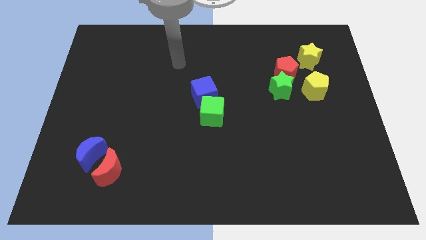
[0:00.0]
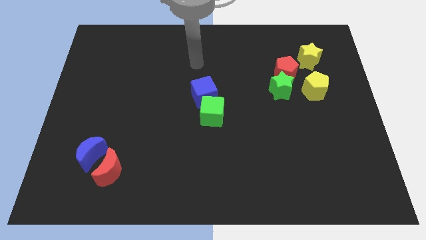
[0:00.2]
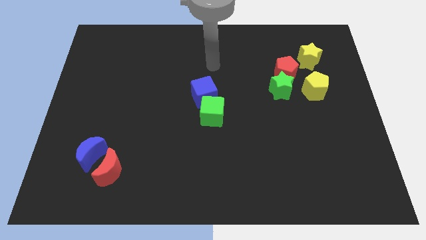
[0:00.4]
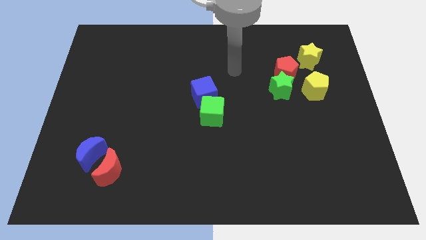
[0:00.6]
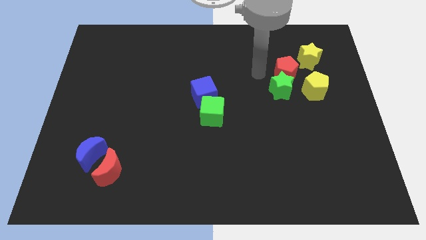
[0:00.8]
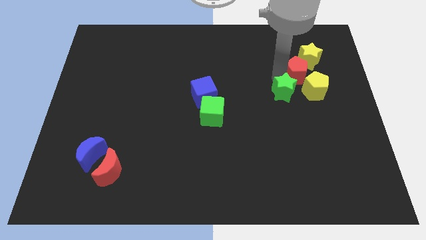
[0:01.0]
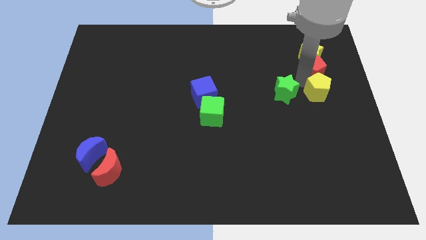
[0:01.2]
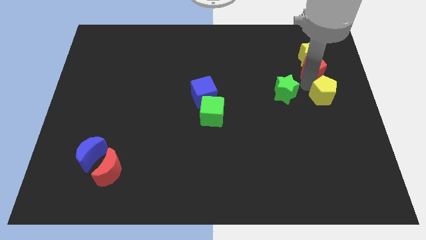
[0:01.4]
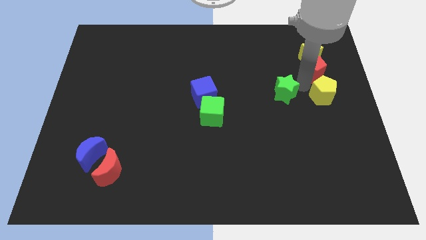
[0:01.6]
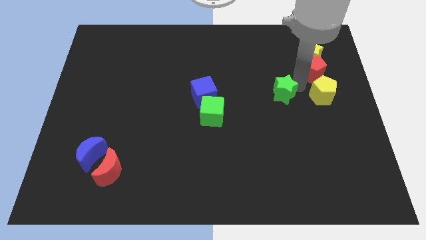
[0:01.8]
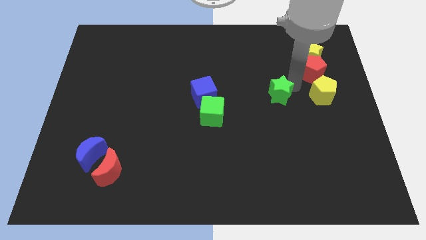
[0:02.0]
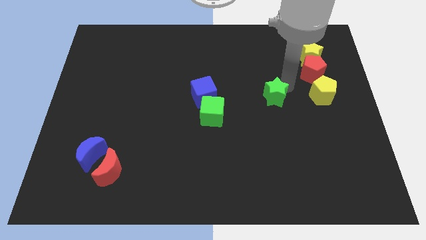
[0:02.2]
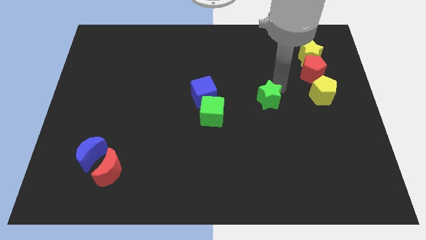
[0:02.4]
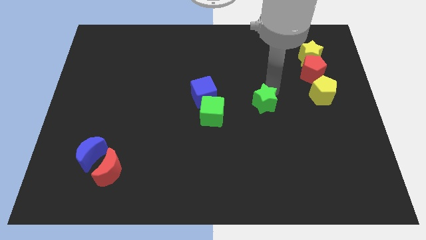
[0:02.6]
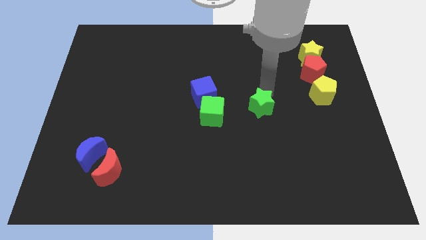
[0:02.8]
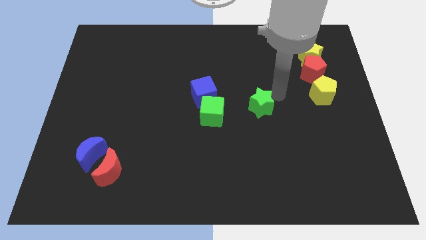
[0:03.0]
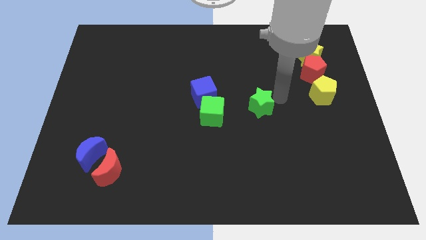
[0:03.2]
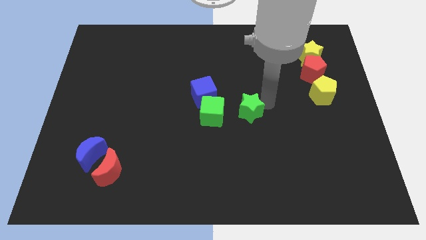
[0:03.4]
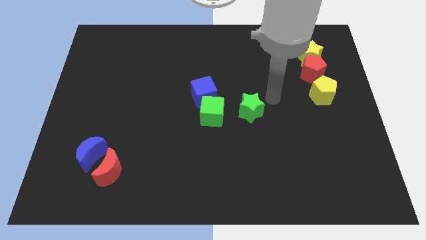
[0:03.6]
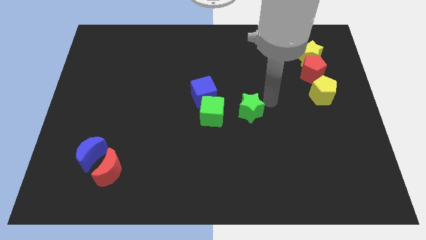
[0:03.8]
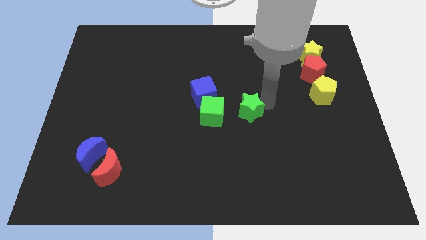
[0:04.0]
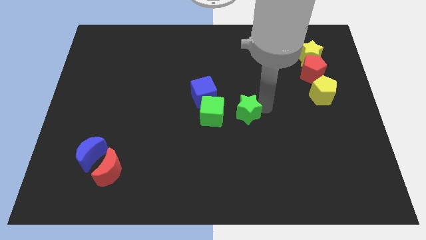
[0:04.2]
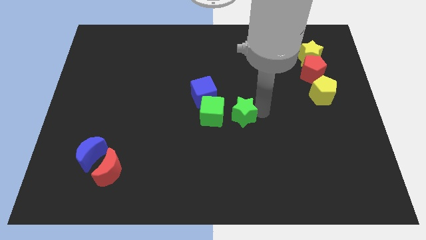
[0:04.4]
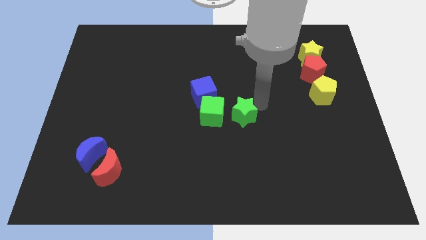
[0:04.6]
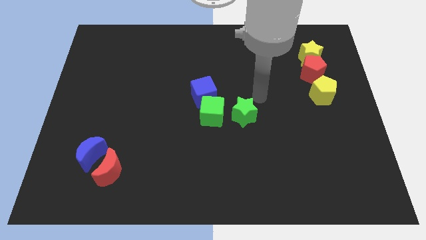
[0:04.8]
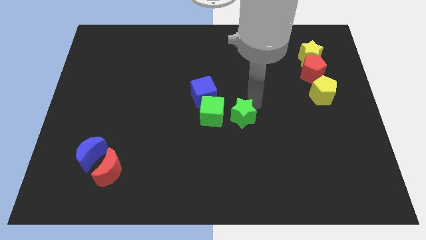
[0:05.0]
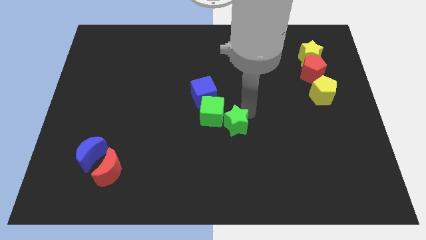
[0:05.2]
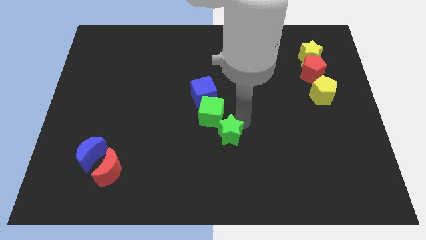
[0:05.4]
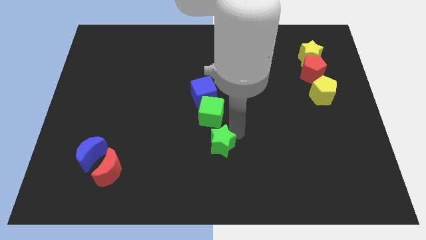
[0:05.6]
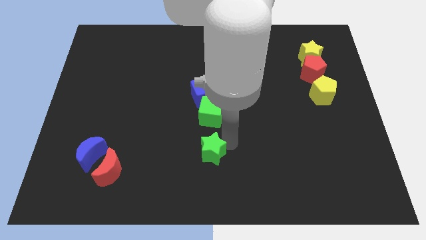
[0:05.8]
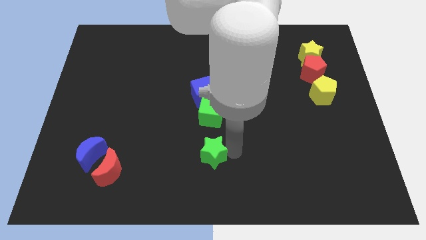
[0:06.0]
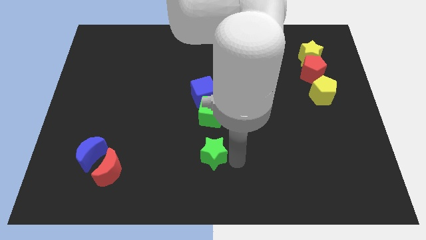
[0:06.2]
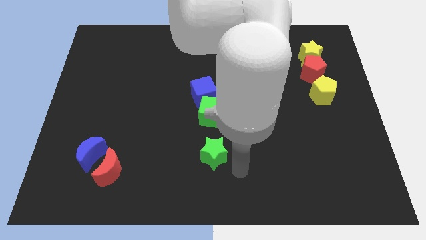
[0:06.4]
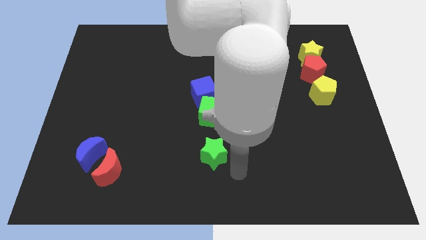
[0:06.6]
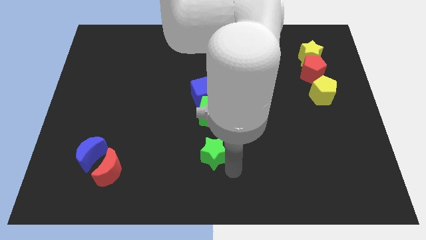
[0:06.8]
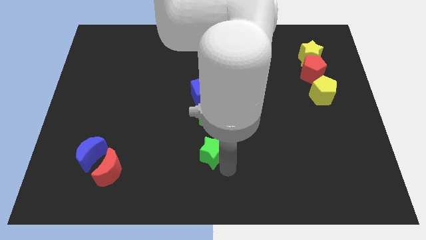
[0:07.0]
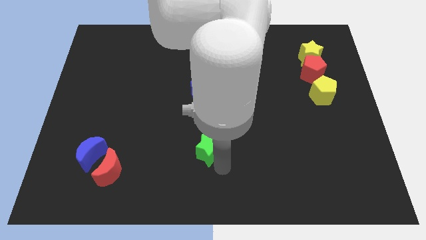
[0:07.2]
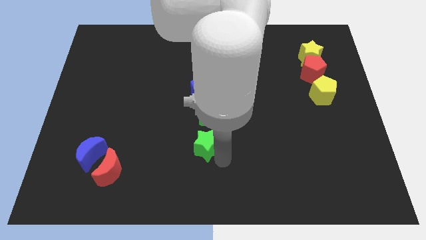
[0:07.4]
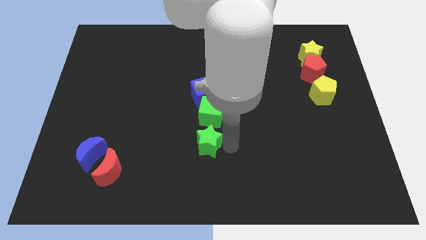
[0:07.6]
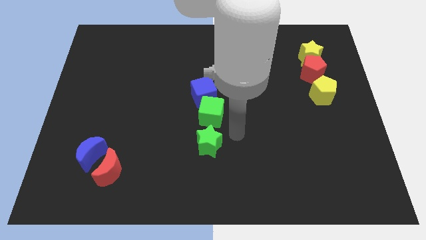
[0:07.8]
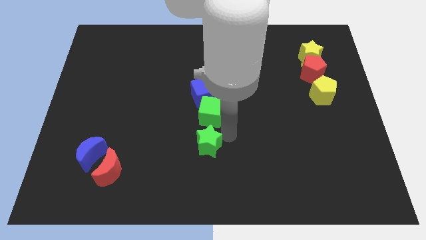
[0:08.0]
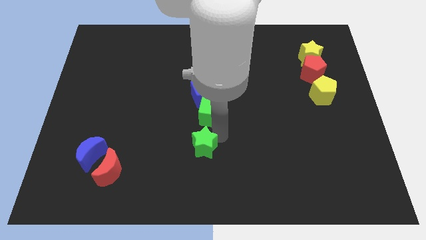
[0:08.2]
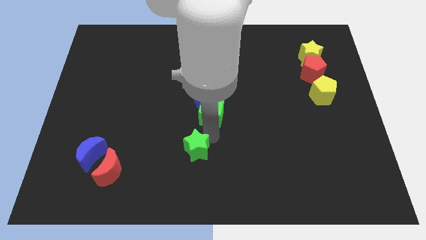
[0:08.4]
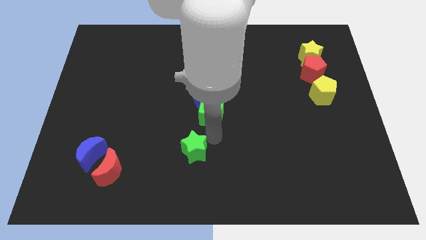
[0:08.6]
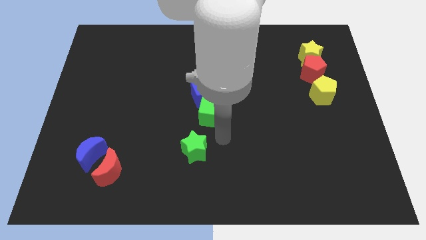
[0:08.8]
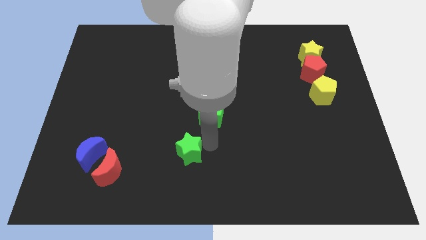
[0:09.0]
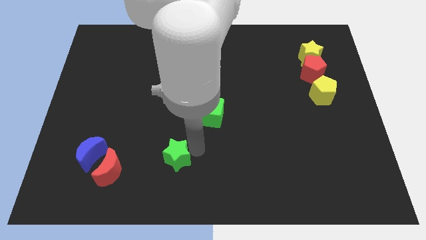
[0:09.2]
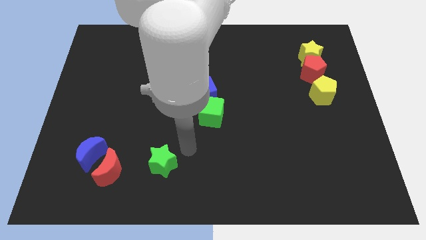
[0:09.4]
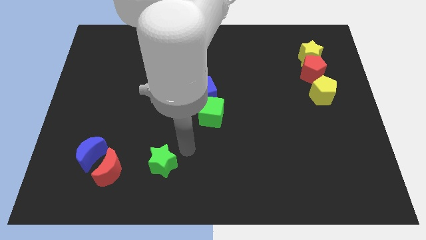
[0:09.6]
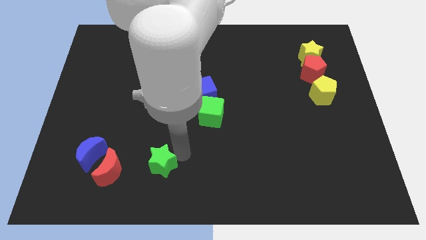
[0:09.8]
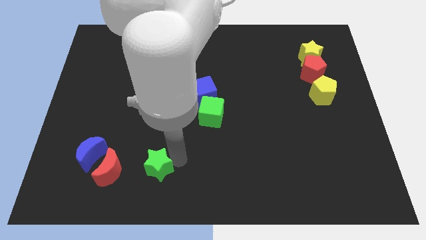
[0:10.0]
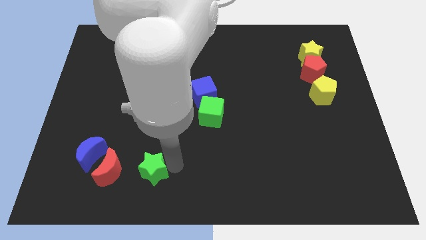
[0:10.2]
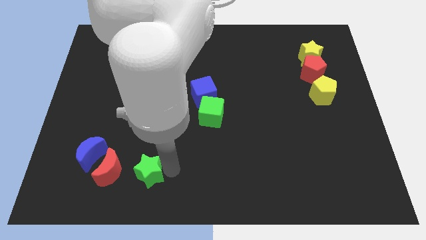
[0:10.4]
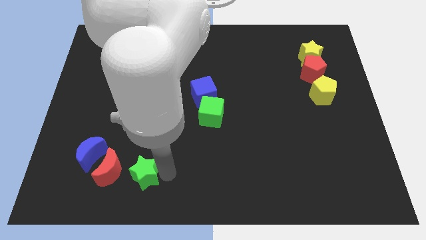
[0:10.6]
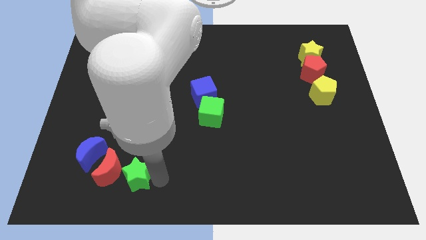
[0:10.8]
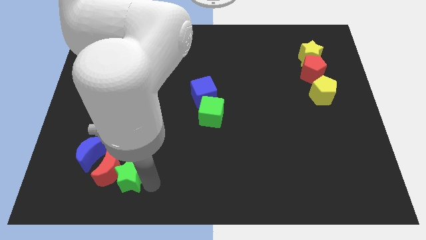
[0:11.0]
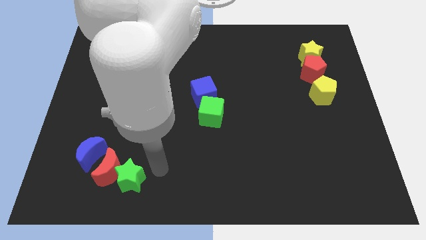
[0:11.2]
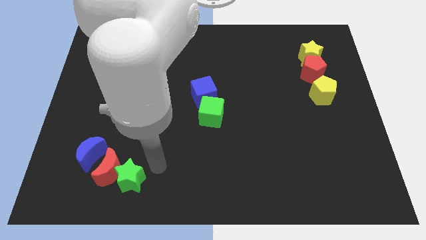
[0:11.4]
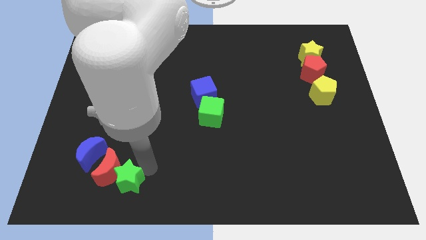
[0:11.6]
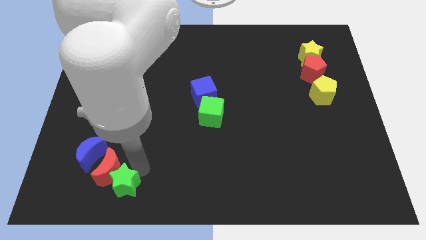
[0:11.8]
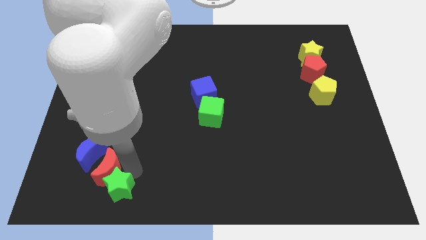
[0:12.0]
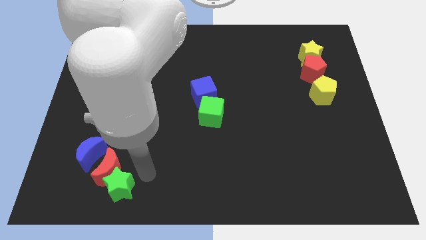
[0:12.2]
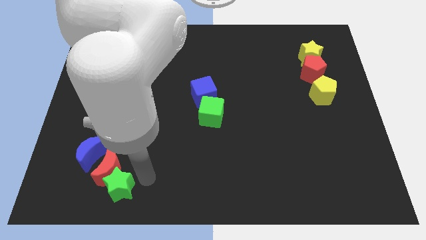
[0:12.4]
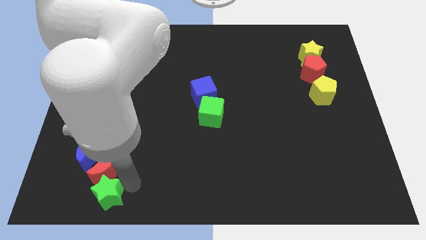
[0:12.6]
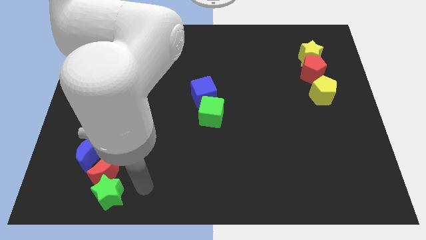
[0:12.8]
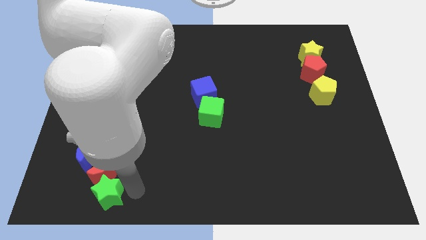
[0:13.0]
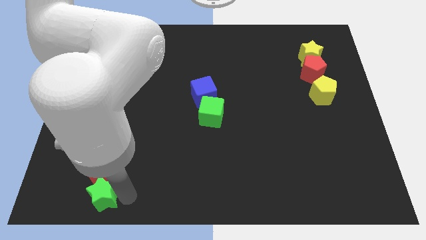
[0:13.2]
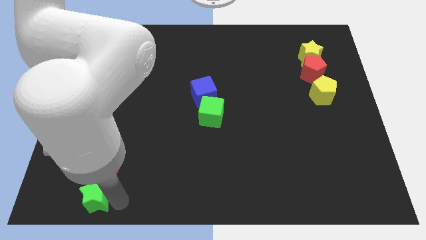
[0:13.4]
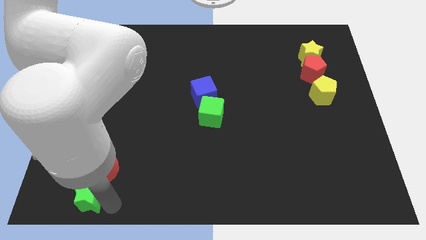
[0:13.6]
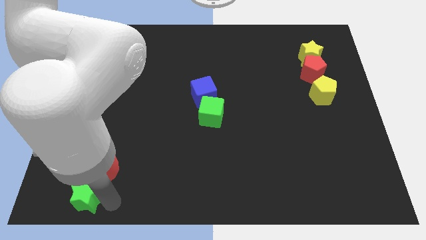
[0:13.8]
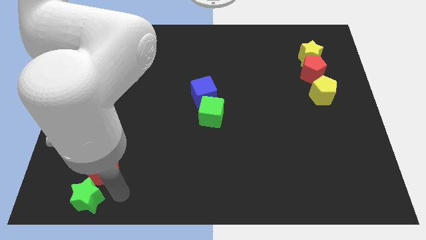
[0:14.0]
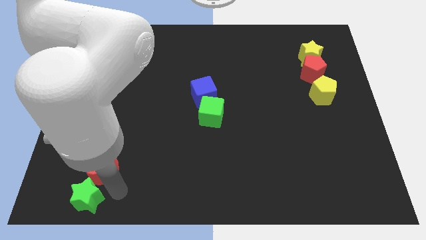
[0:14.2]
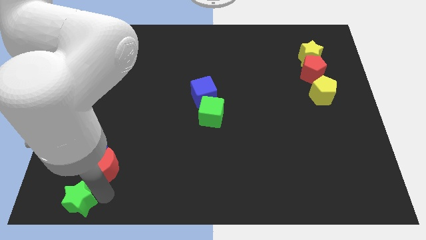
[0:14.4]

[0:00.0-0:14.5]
push the green star to the bottom left corner
